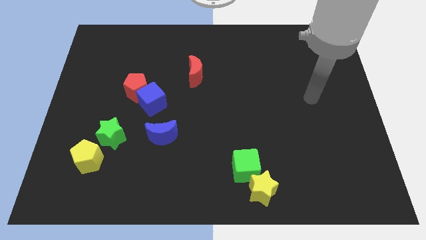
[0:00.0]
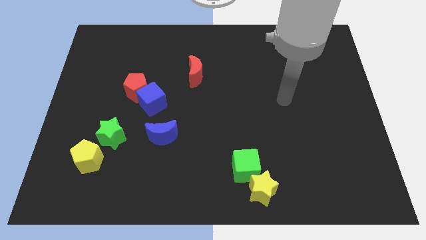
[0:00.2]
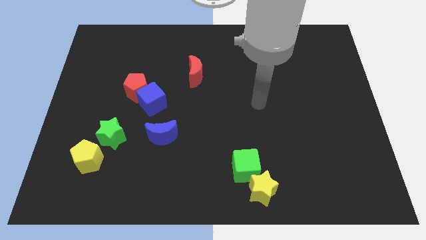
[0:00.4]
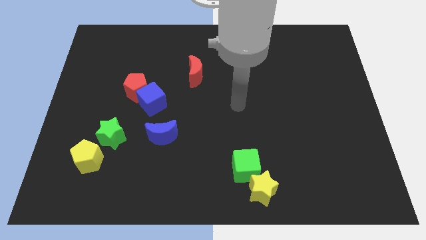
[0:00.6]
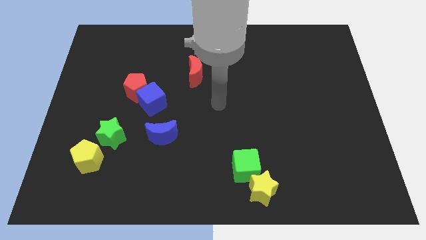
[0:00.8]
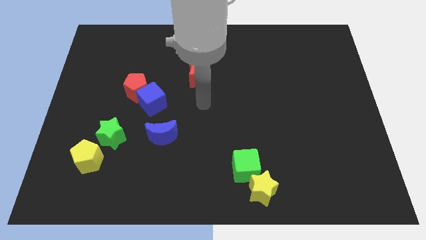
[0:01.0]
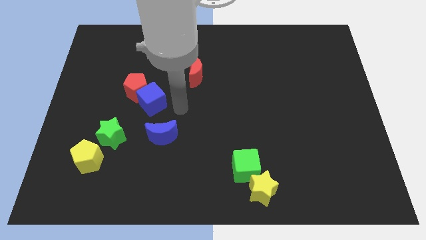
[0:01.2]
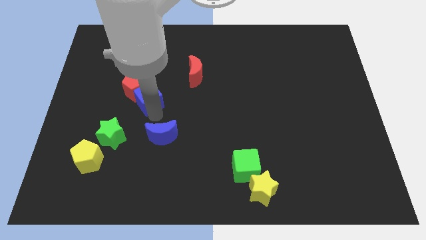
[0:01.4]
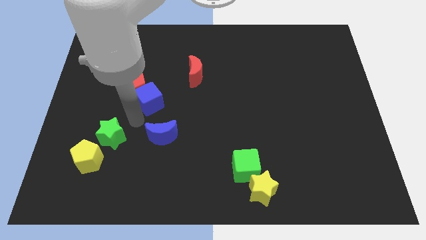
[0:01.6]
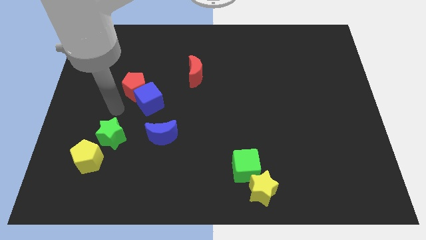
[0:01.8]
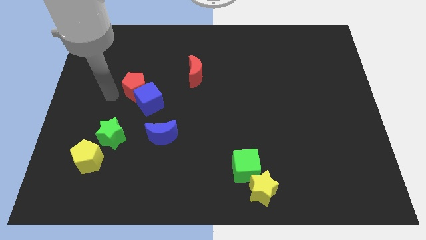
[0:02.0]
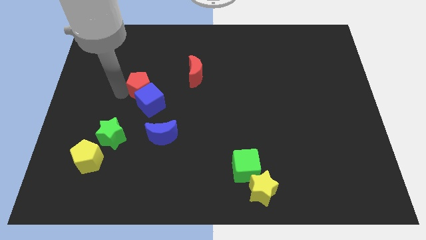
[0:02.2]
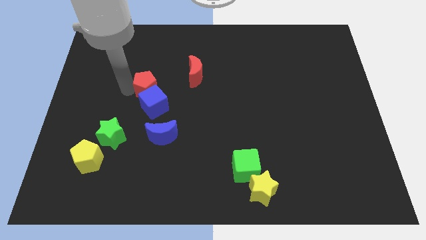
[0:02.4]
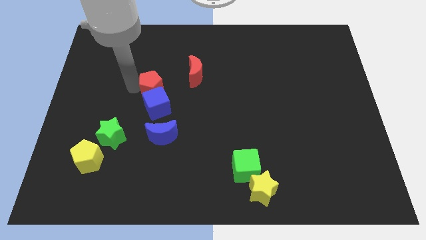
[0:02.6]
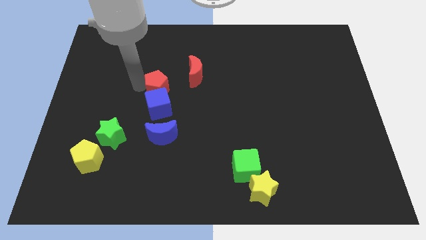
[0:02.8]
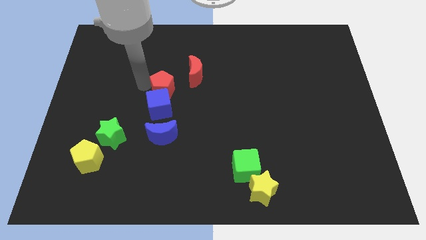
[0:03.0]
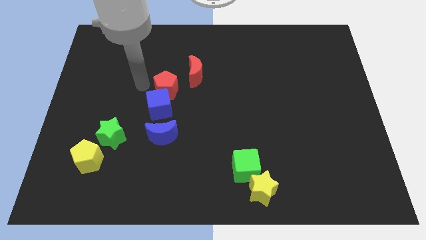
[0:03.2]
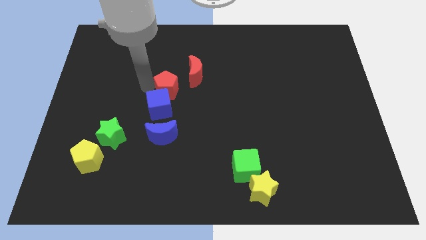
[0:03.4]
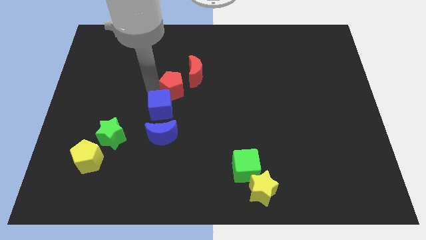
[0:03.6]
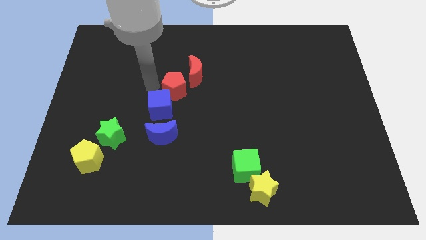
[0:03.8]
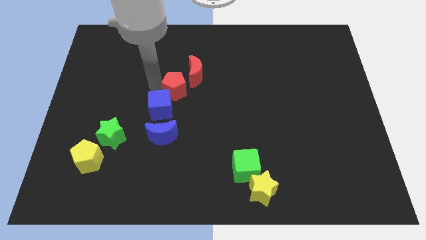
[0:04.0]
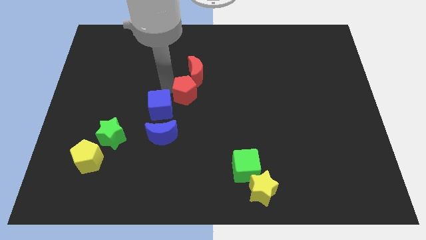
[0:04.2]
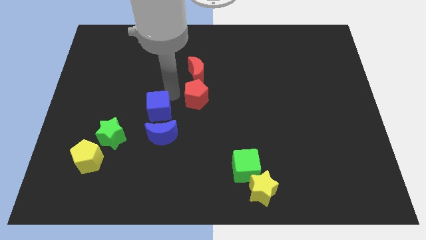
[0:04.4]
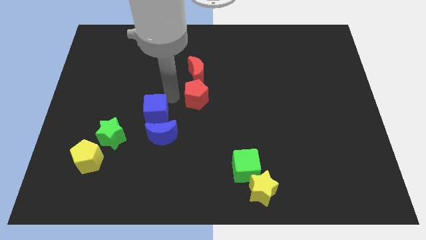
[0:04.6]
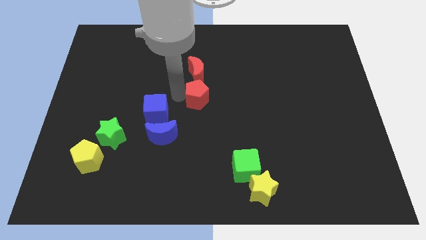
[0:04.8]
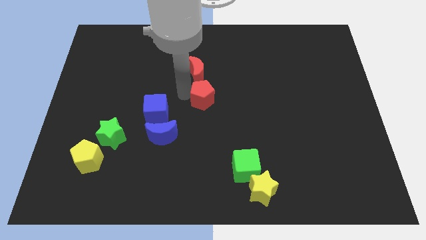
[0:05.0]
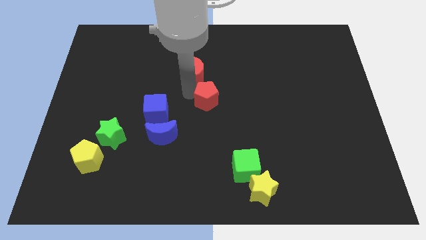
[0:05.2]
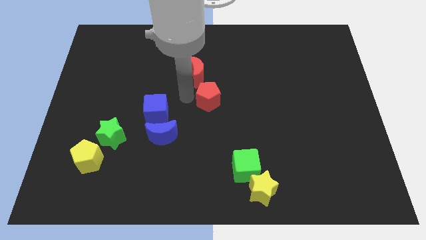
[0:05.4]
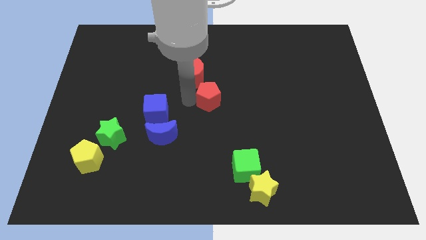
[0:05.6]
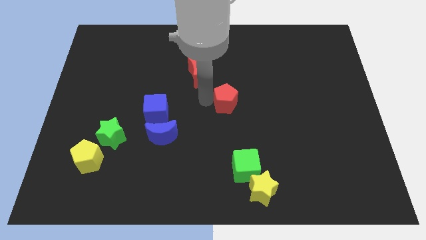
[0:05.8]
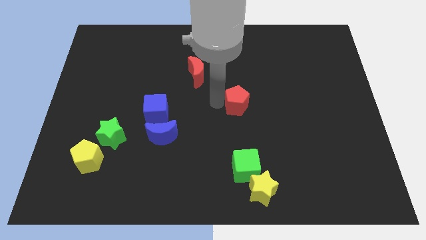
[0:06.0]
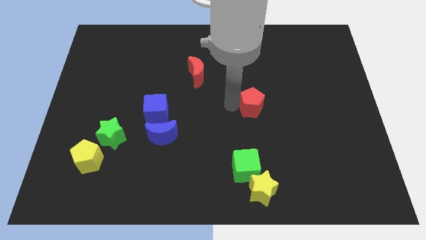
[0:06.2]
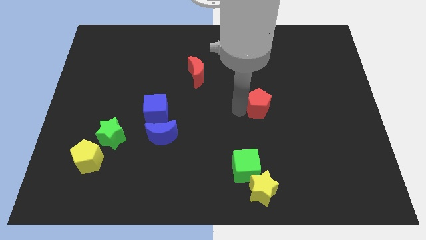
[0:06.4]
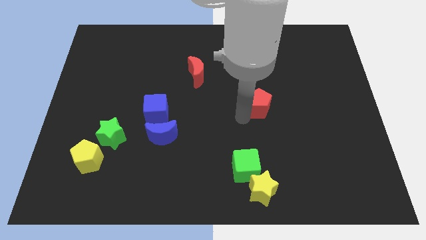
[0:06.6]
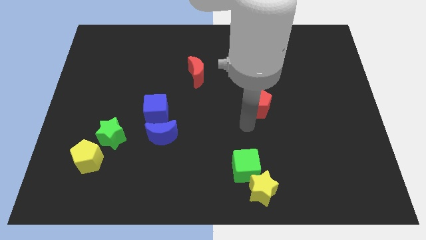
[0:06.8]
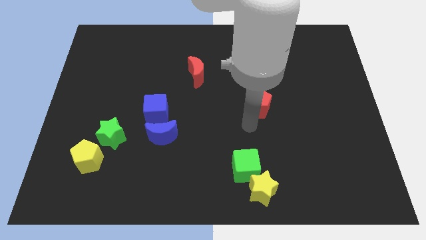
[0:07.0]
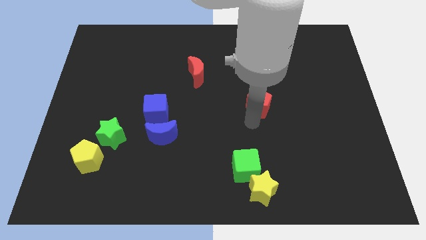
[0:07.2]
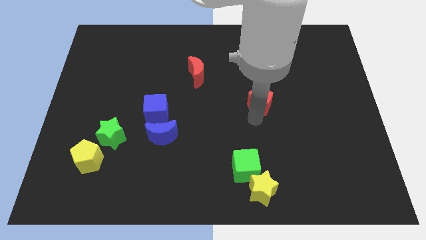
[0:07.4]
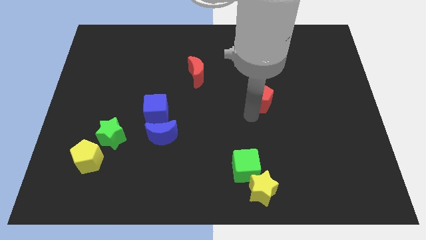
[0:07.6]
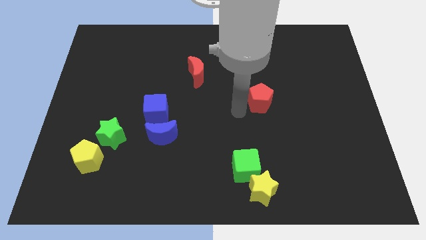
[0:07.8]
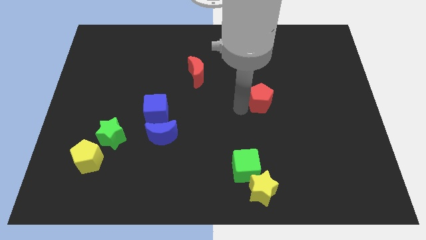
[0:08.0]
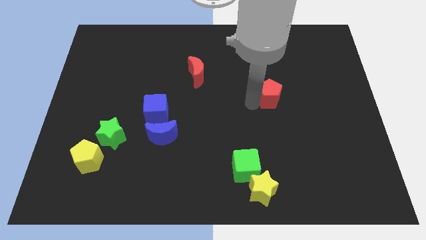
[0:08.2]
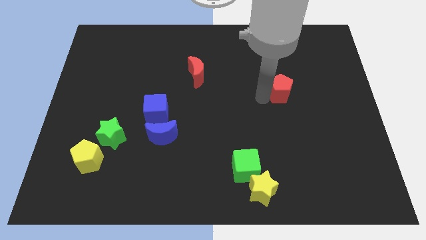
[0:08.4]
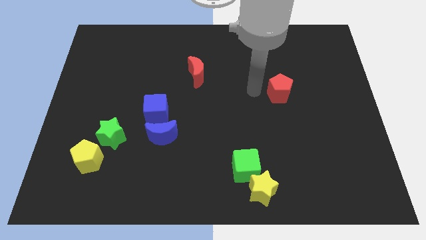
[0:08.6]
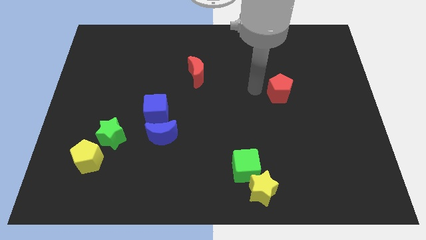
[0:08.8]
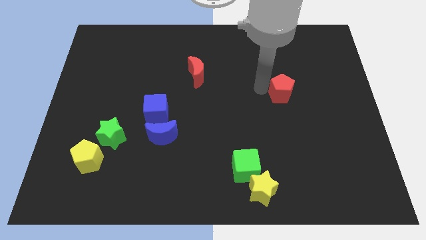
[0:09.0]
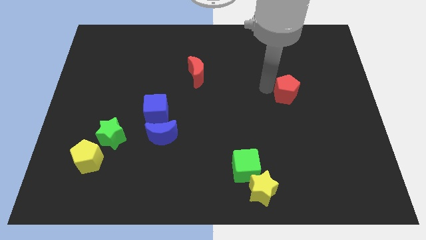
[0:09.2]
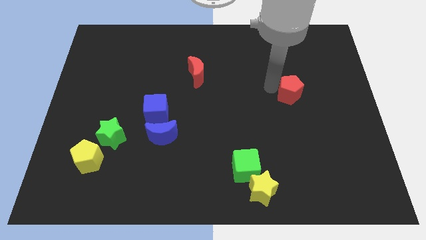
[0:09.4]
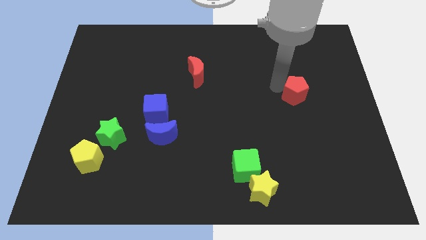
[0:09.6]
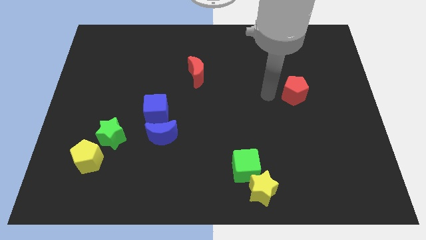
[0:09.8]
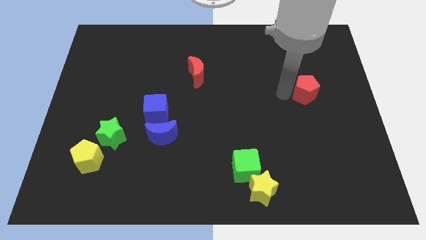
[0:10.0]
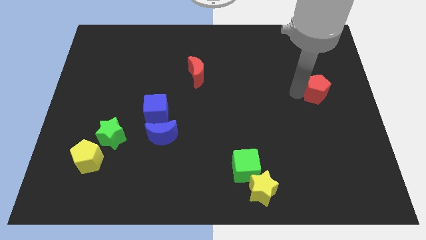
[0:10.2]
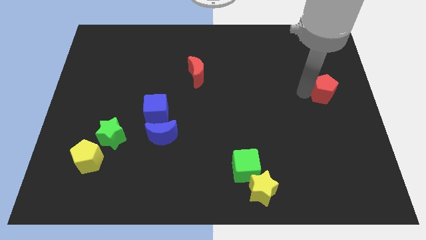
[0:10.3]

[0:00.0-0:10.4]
slide the red pentagon to the right side of the board

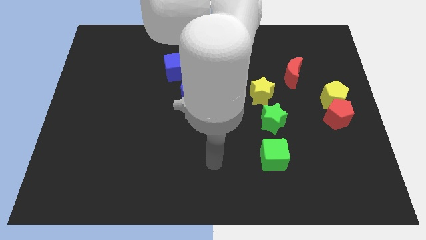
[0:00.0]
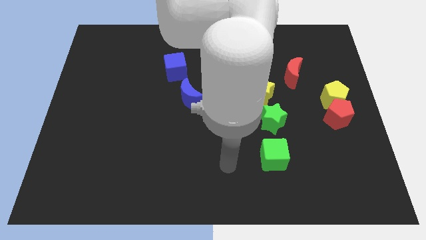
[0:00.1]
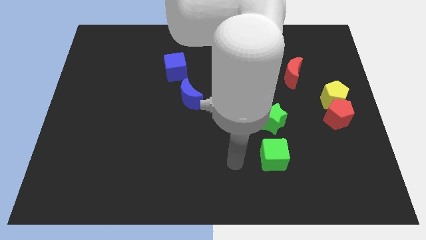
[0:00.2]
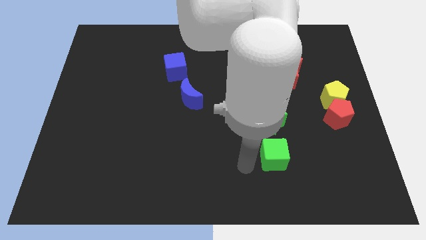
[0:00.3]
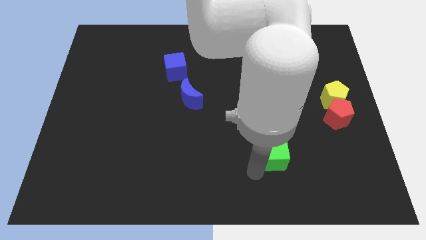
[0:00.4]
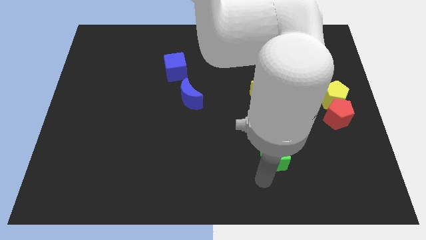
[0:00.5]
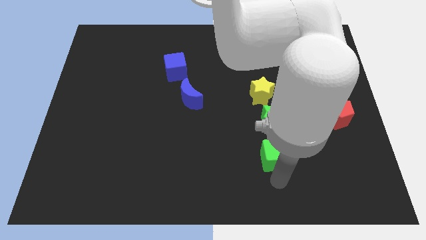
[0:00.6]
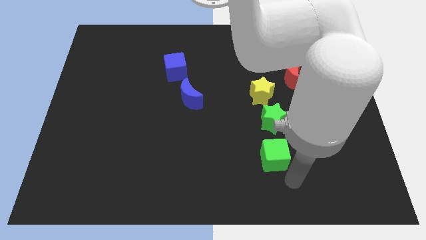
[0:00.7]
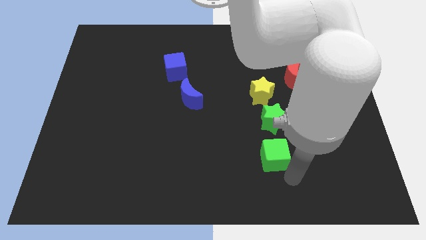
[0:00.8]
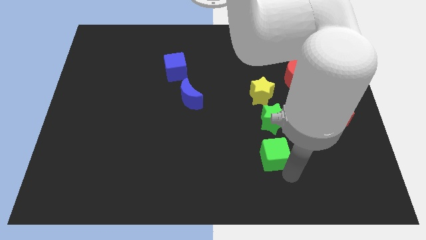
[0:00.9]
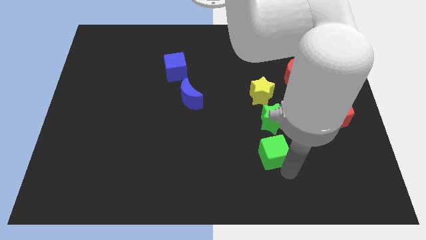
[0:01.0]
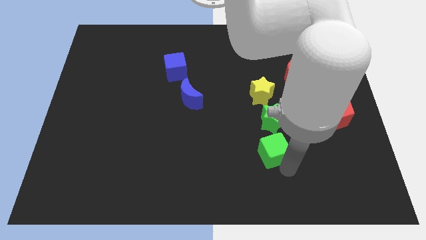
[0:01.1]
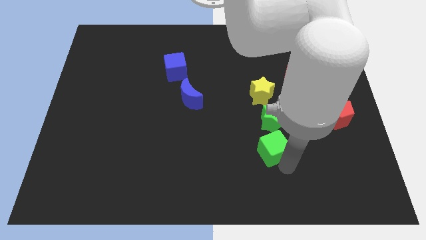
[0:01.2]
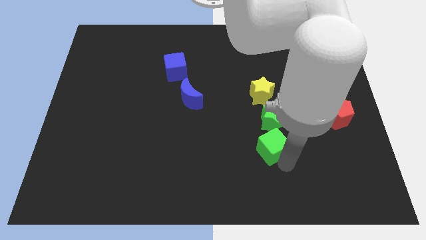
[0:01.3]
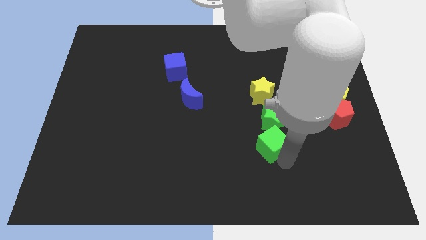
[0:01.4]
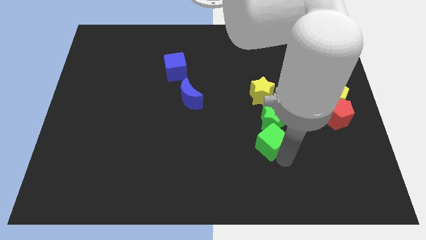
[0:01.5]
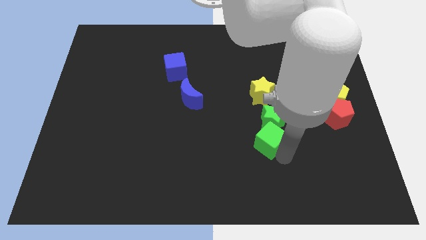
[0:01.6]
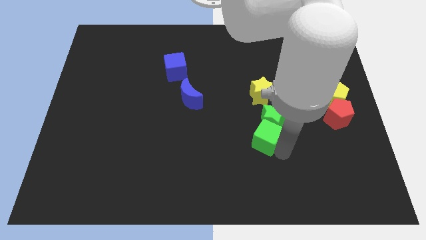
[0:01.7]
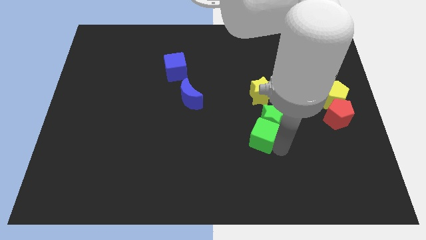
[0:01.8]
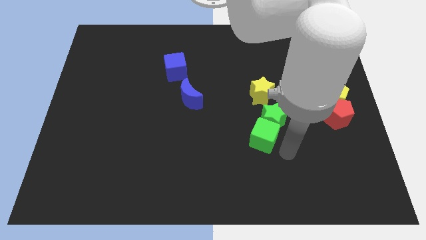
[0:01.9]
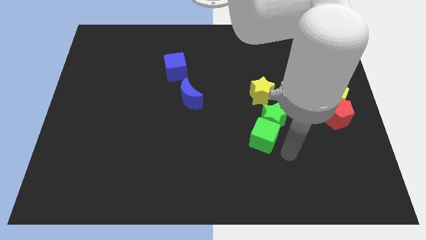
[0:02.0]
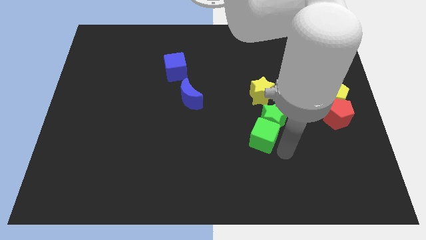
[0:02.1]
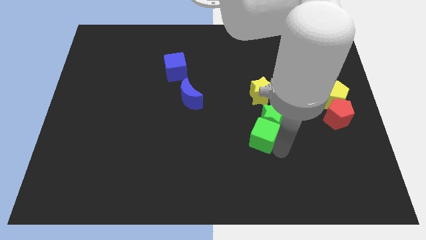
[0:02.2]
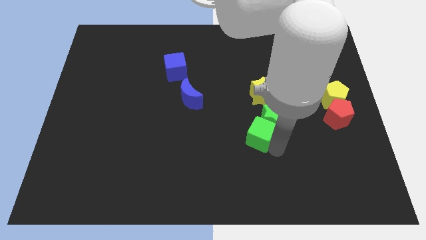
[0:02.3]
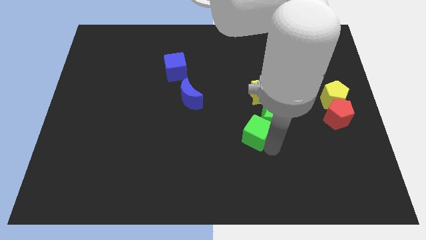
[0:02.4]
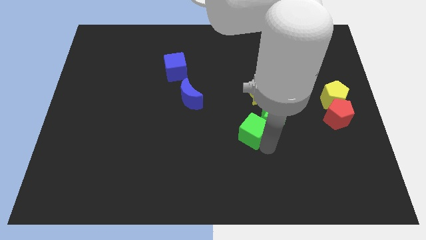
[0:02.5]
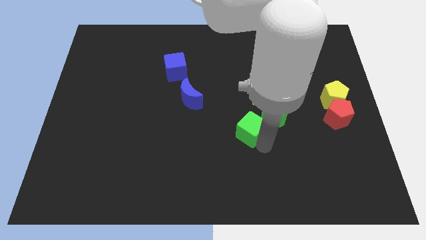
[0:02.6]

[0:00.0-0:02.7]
put the green cube to the center

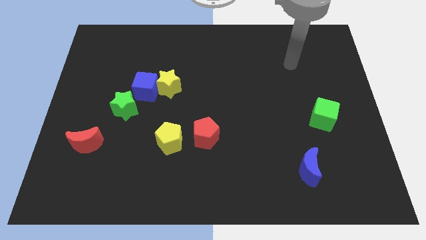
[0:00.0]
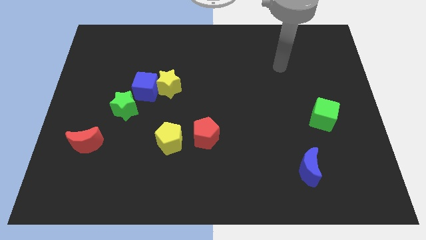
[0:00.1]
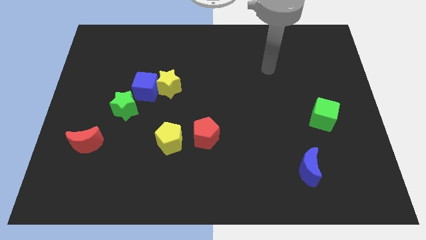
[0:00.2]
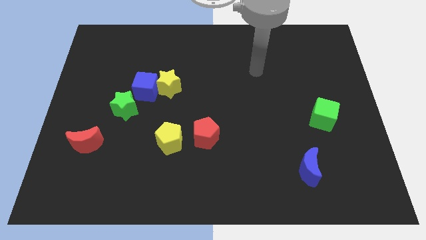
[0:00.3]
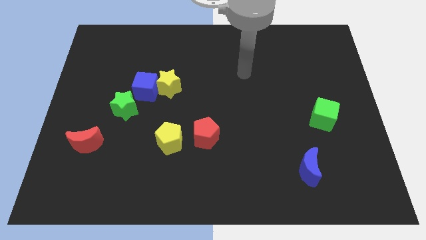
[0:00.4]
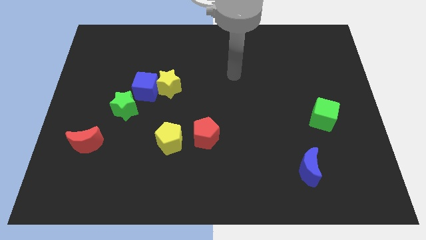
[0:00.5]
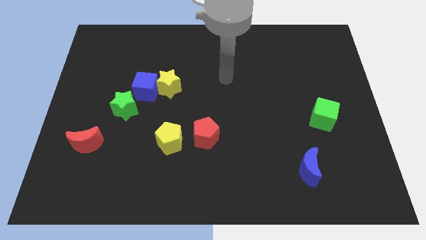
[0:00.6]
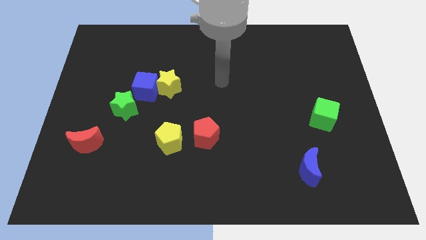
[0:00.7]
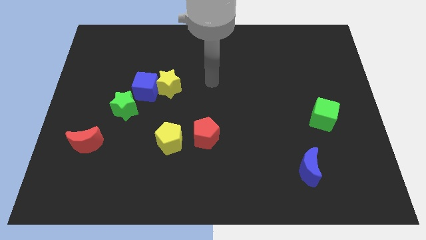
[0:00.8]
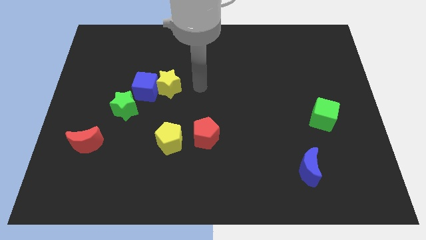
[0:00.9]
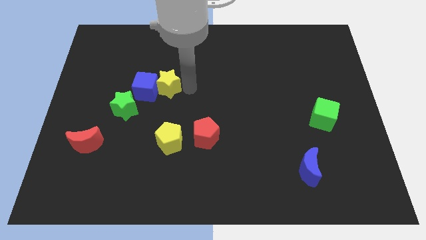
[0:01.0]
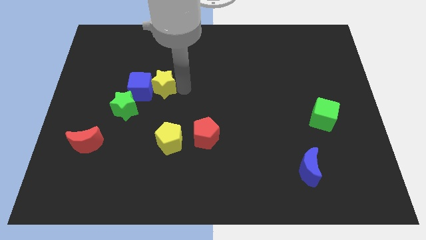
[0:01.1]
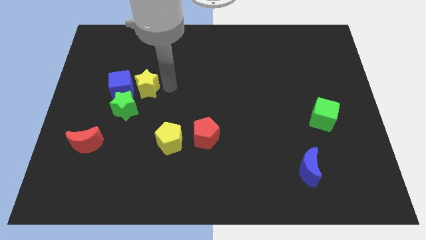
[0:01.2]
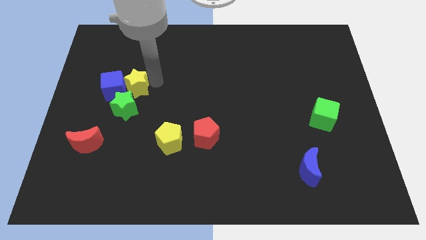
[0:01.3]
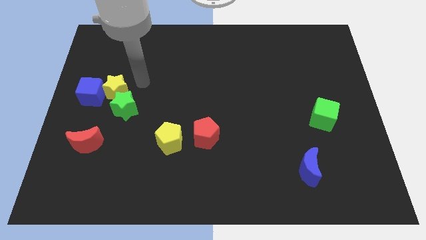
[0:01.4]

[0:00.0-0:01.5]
push the blue cube to the center left
